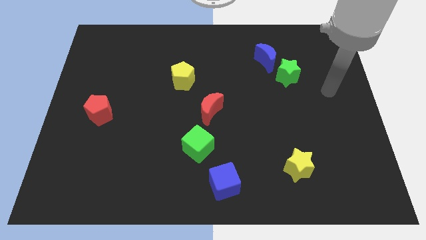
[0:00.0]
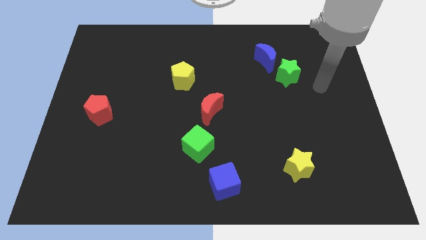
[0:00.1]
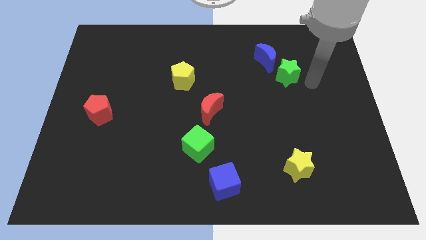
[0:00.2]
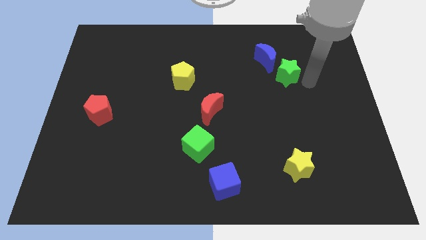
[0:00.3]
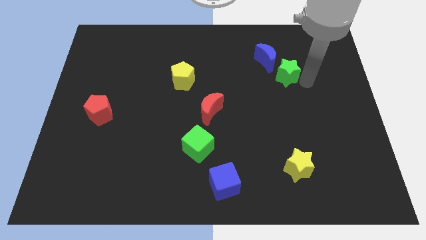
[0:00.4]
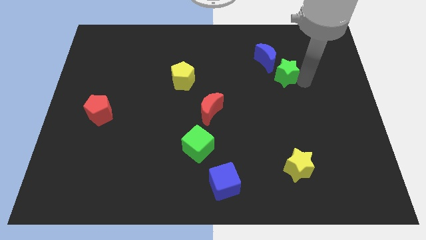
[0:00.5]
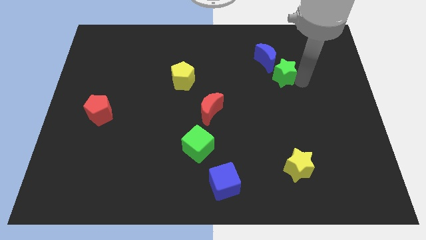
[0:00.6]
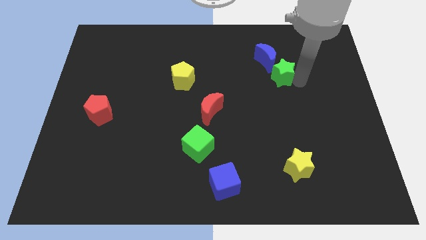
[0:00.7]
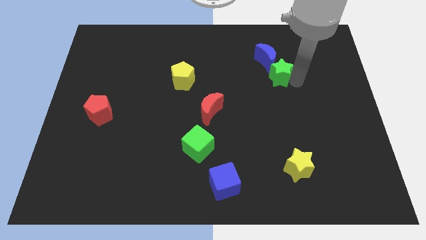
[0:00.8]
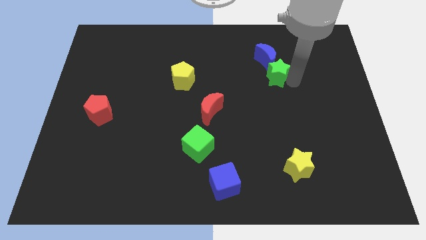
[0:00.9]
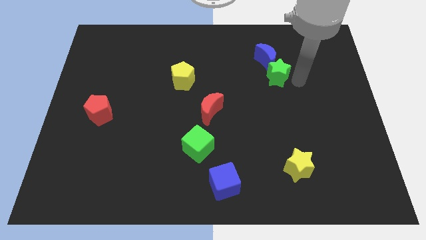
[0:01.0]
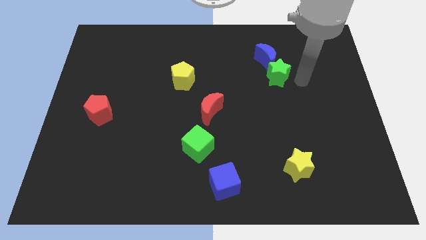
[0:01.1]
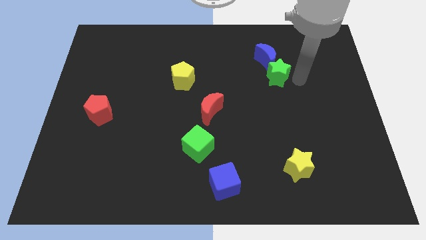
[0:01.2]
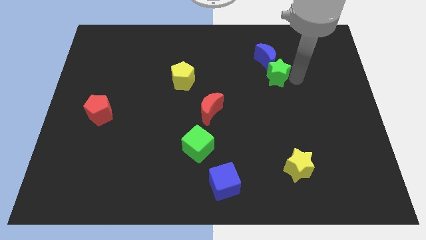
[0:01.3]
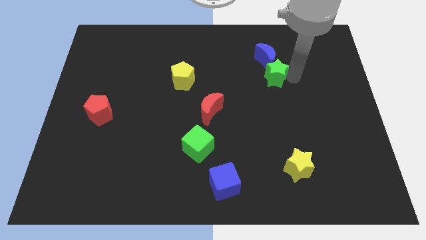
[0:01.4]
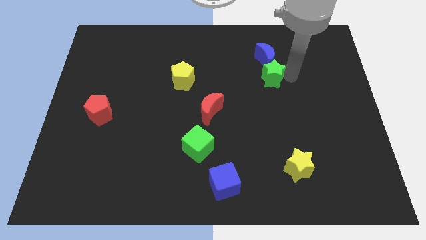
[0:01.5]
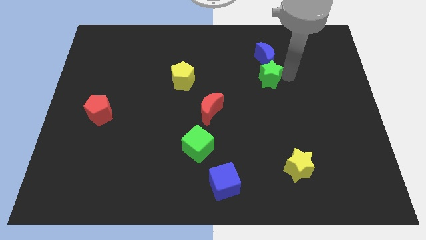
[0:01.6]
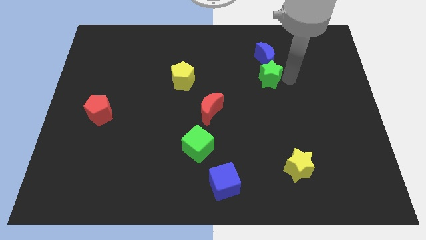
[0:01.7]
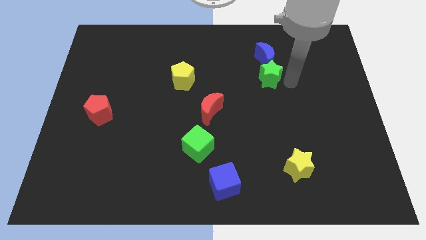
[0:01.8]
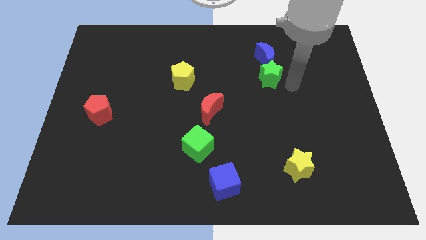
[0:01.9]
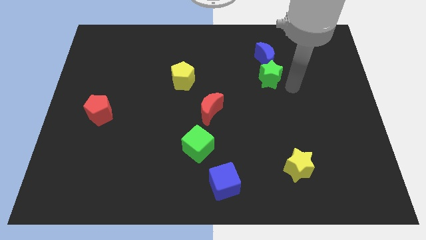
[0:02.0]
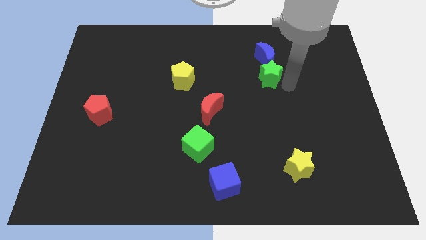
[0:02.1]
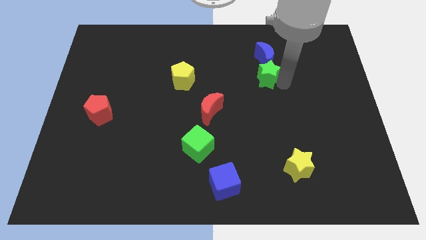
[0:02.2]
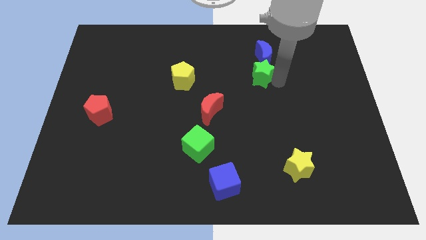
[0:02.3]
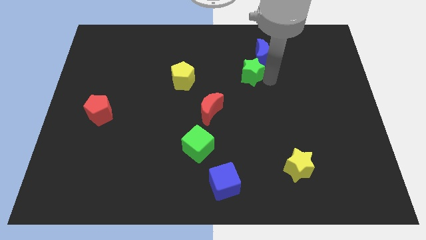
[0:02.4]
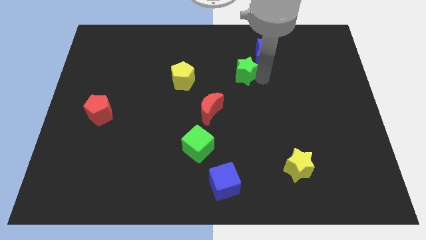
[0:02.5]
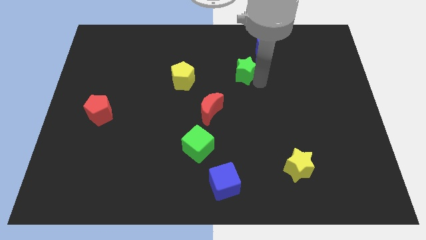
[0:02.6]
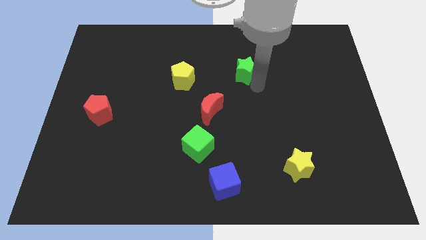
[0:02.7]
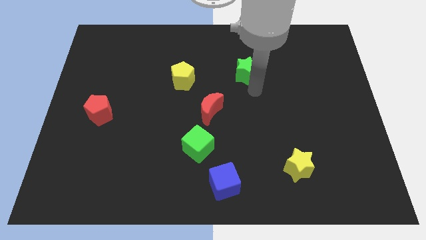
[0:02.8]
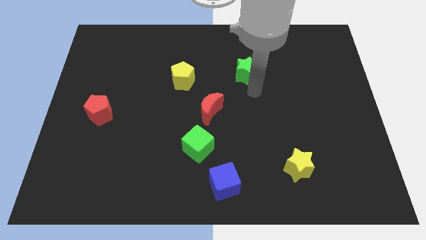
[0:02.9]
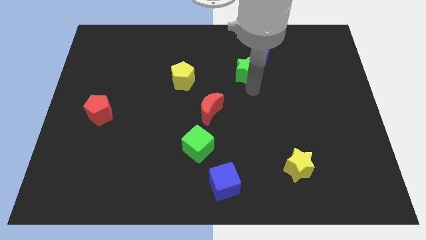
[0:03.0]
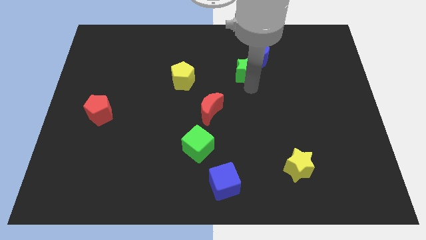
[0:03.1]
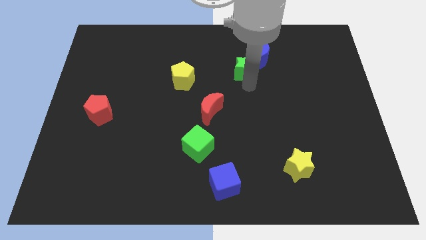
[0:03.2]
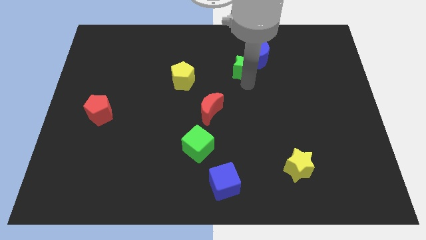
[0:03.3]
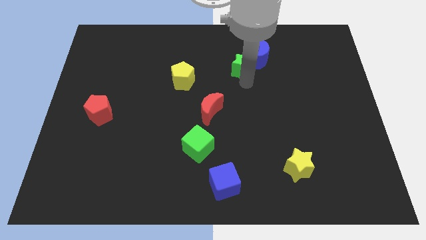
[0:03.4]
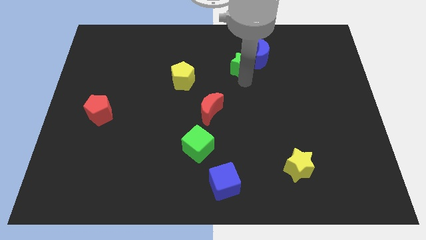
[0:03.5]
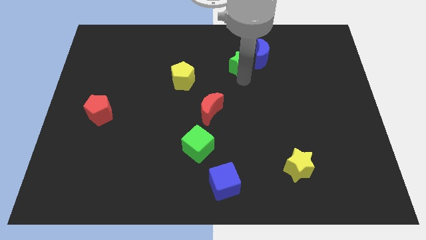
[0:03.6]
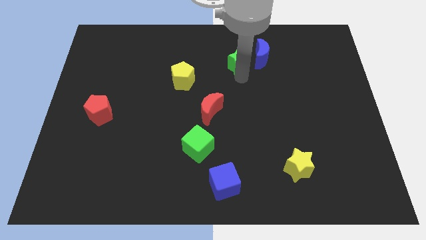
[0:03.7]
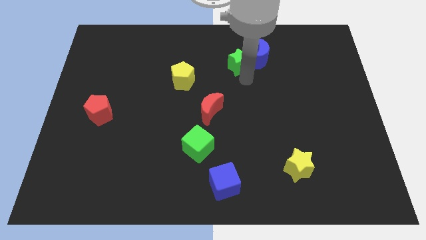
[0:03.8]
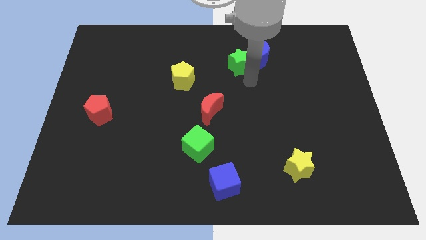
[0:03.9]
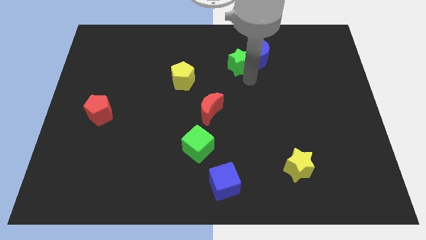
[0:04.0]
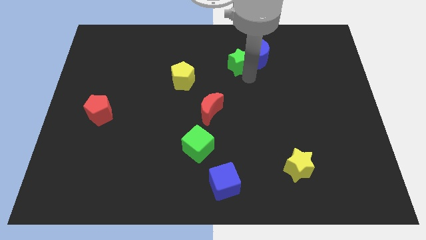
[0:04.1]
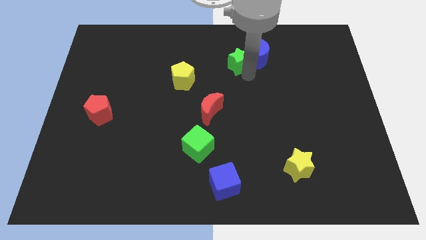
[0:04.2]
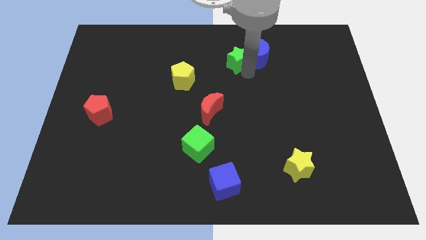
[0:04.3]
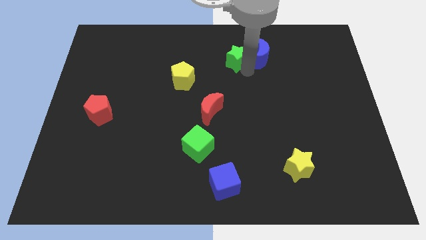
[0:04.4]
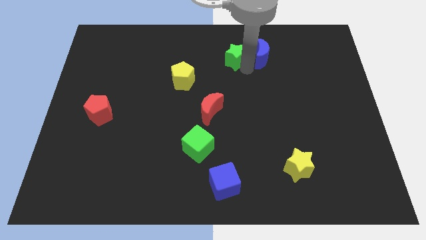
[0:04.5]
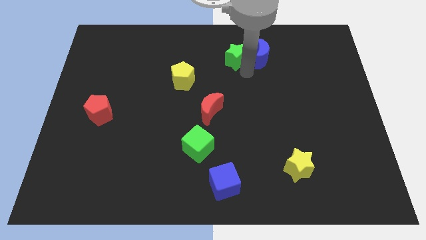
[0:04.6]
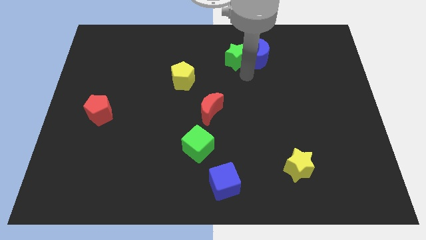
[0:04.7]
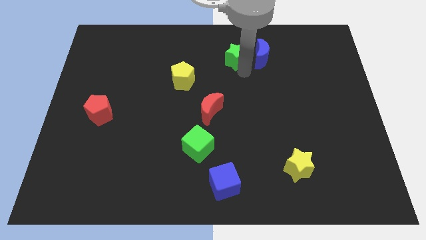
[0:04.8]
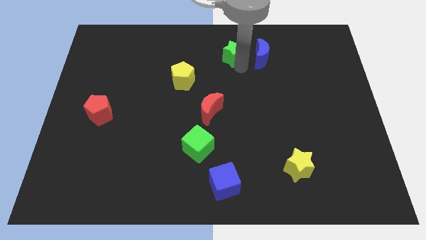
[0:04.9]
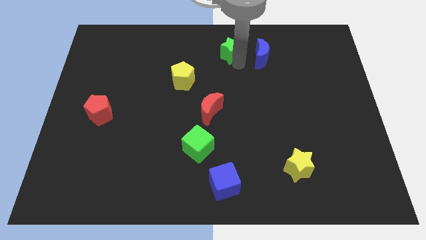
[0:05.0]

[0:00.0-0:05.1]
move the green star to the top side

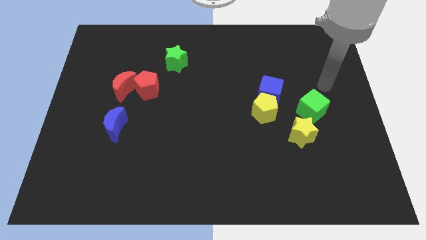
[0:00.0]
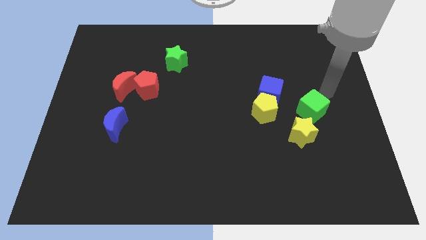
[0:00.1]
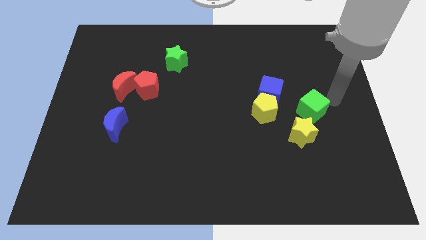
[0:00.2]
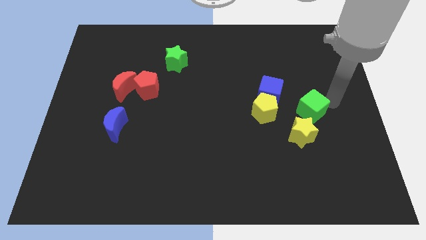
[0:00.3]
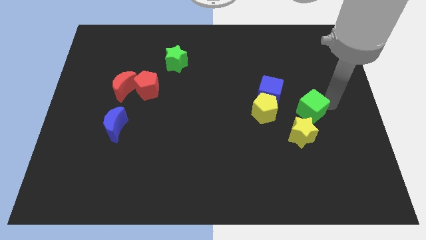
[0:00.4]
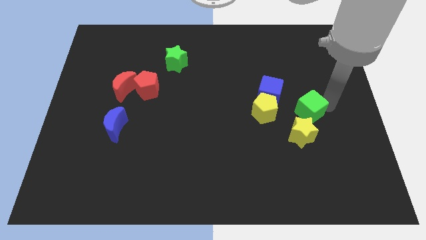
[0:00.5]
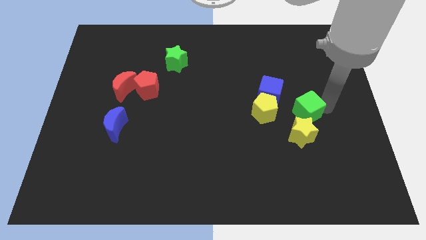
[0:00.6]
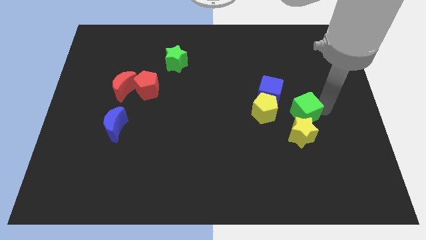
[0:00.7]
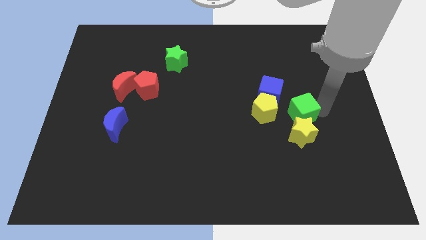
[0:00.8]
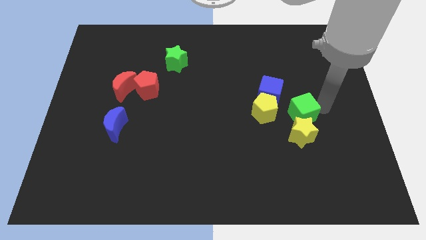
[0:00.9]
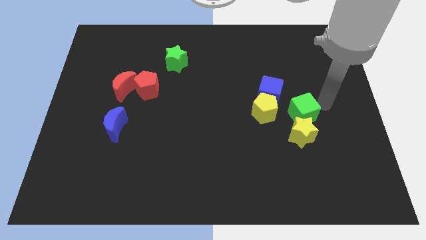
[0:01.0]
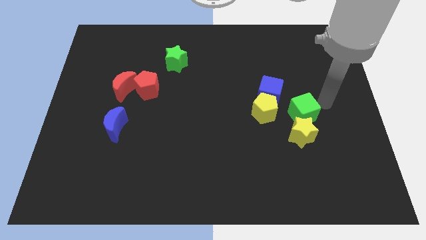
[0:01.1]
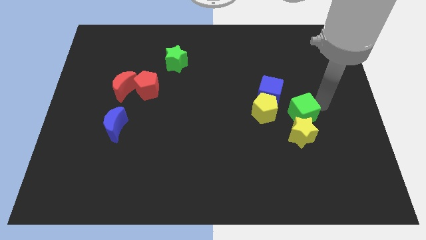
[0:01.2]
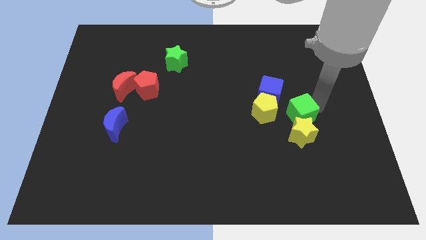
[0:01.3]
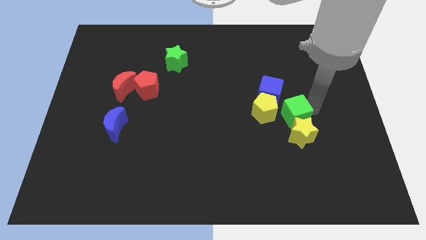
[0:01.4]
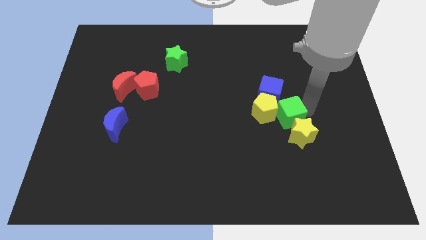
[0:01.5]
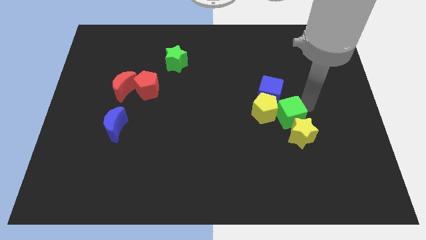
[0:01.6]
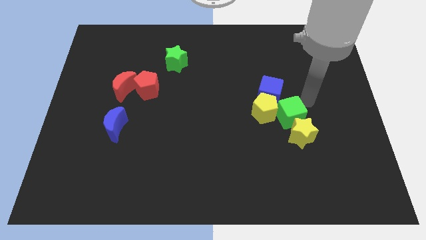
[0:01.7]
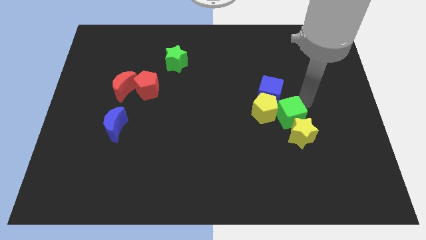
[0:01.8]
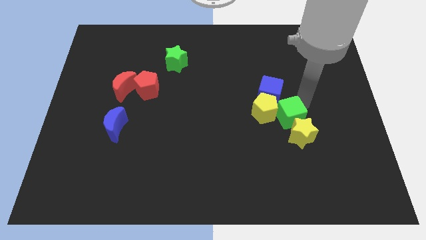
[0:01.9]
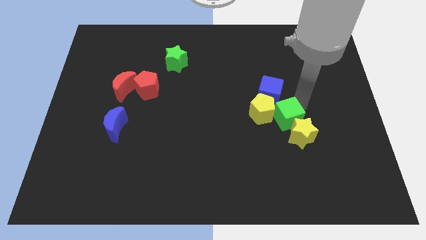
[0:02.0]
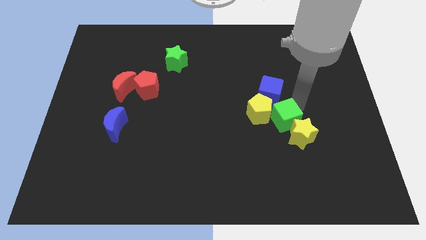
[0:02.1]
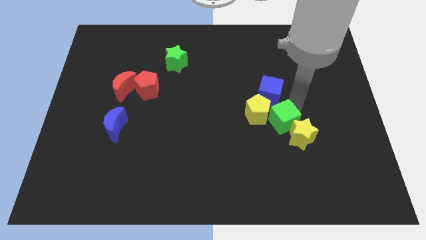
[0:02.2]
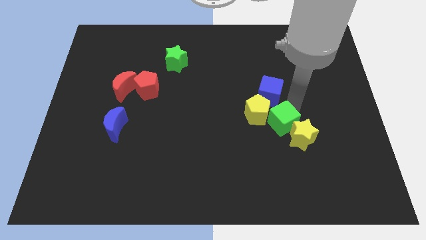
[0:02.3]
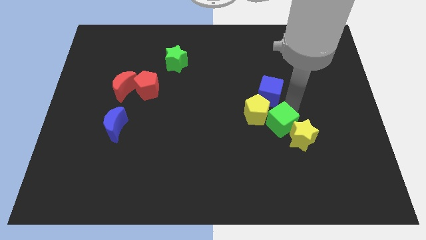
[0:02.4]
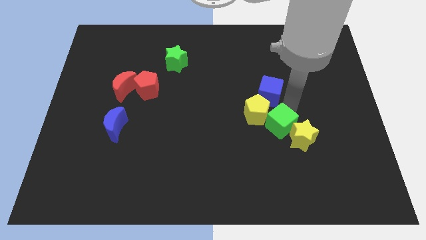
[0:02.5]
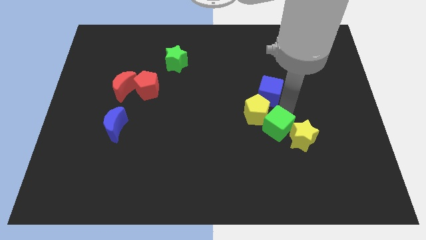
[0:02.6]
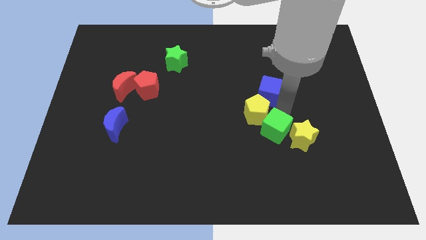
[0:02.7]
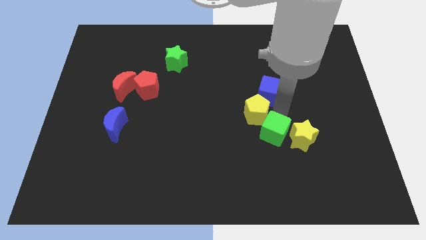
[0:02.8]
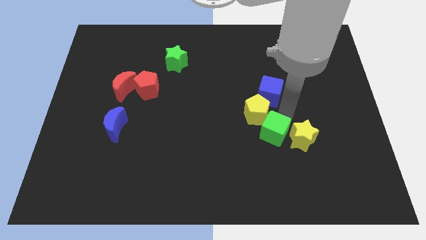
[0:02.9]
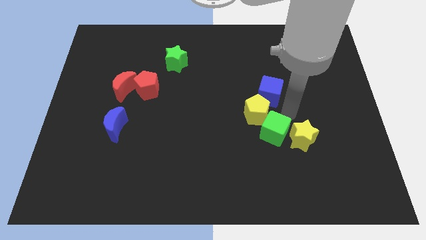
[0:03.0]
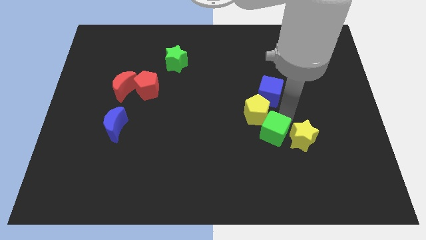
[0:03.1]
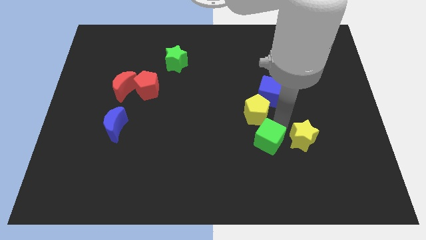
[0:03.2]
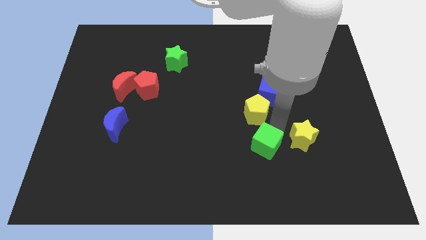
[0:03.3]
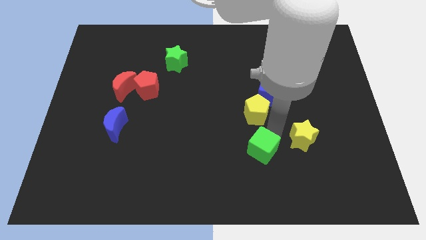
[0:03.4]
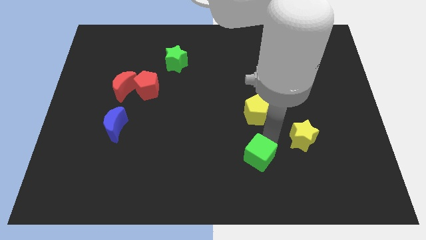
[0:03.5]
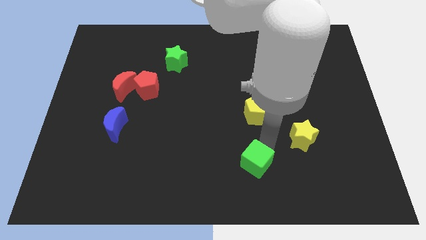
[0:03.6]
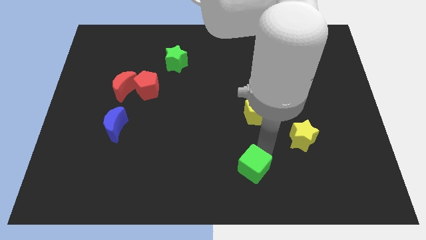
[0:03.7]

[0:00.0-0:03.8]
push the green cube to the bottom side
